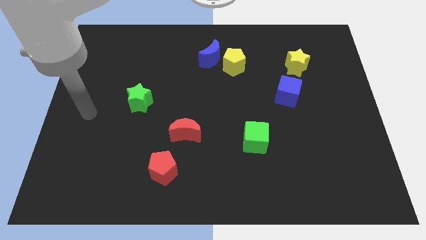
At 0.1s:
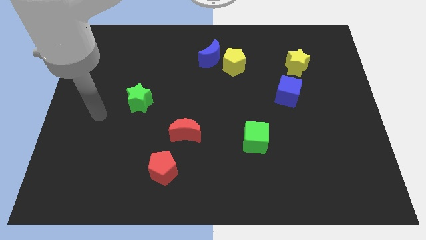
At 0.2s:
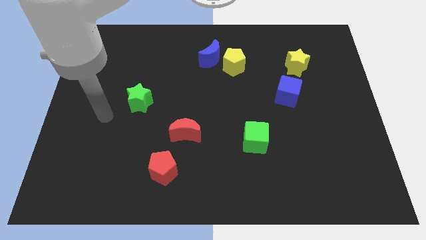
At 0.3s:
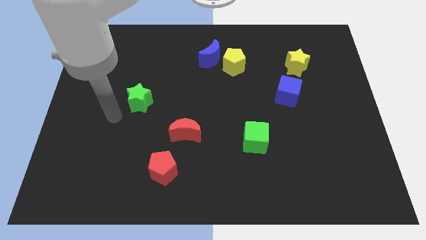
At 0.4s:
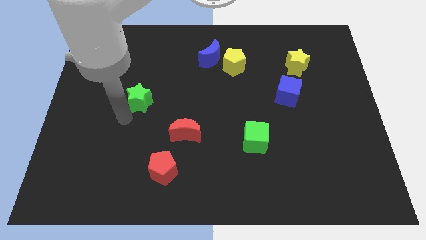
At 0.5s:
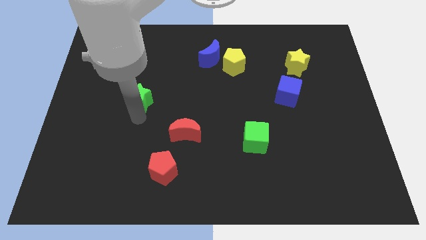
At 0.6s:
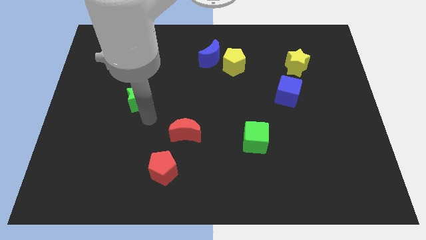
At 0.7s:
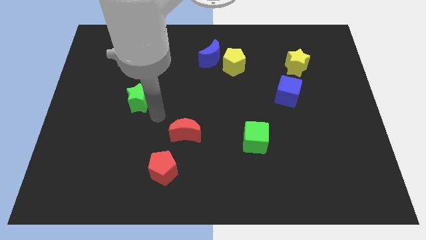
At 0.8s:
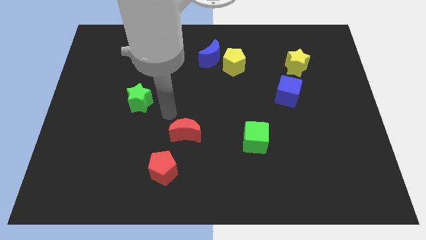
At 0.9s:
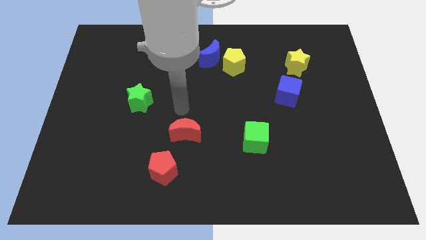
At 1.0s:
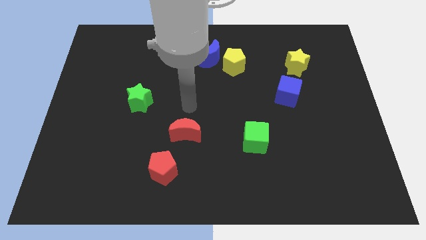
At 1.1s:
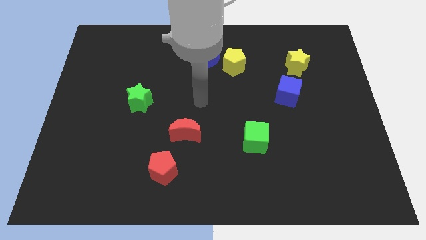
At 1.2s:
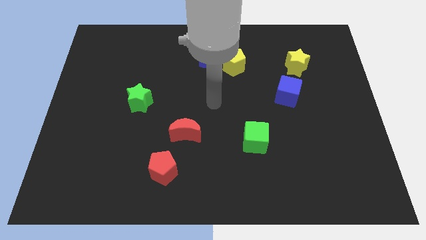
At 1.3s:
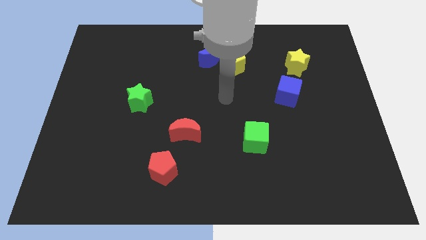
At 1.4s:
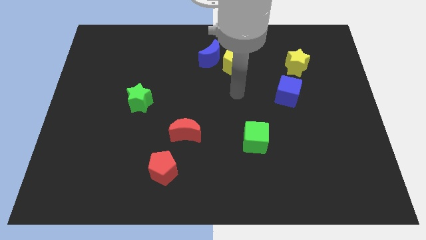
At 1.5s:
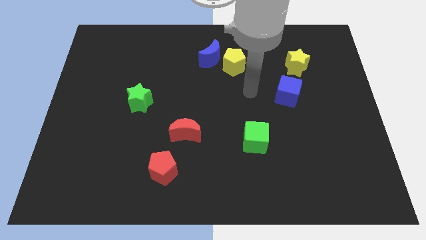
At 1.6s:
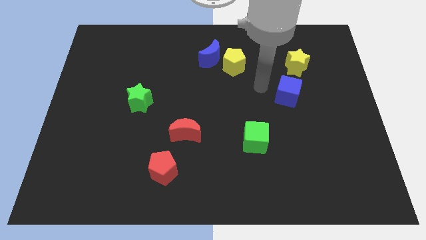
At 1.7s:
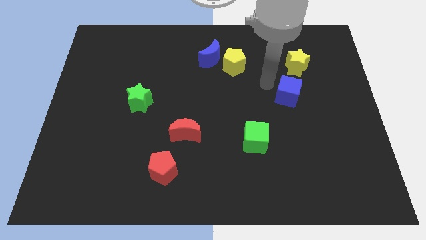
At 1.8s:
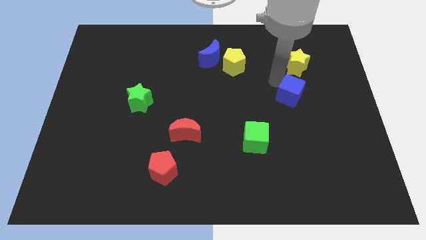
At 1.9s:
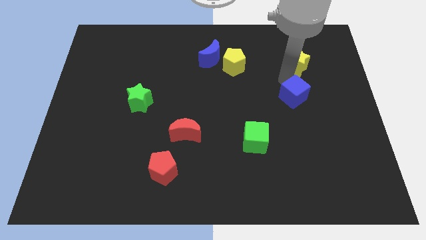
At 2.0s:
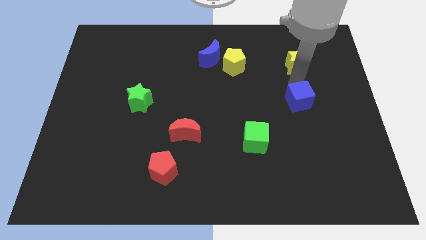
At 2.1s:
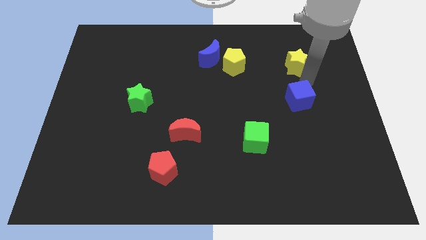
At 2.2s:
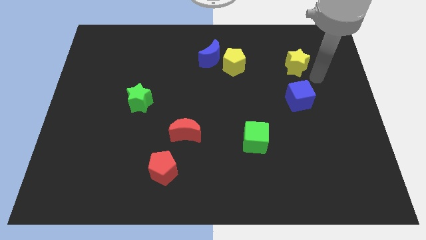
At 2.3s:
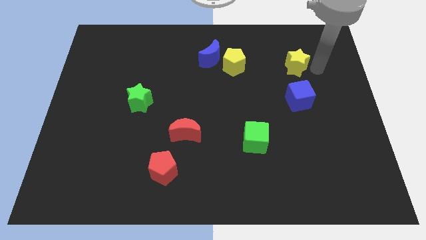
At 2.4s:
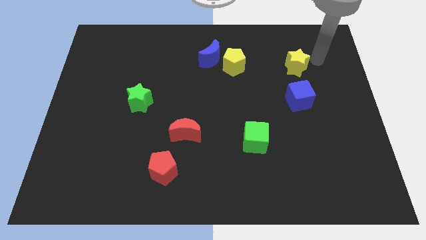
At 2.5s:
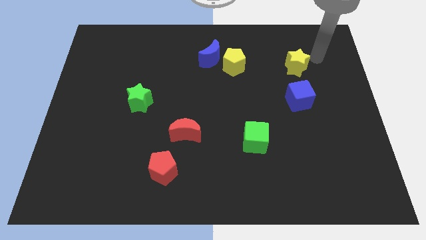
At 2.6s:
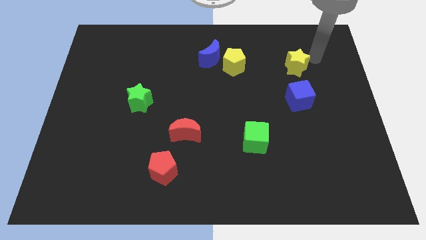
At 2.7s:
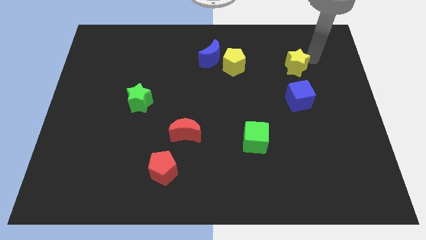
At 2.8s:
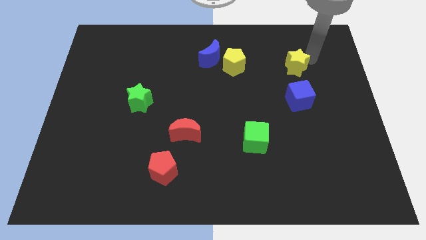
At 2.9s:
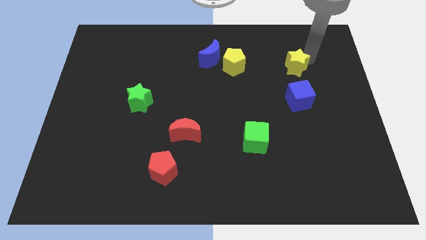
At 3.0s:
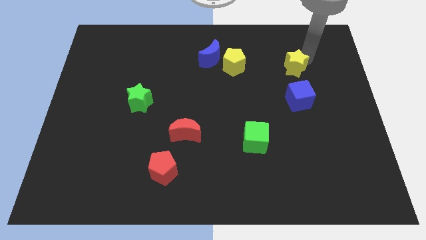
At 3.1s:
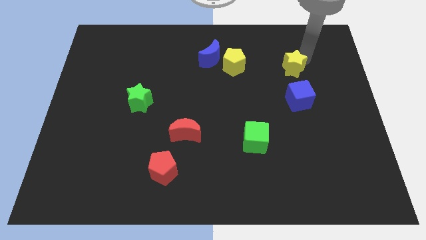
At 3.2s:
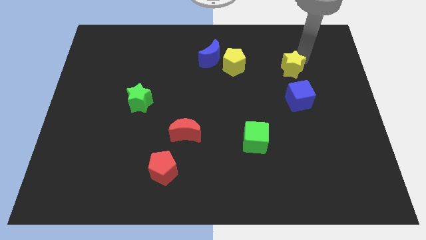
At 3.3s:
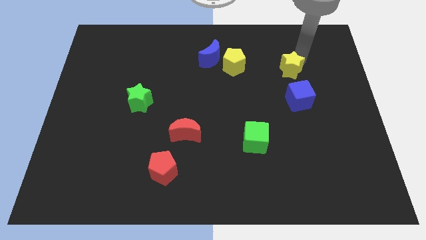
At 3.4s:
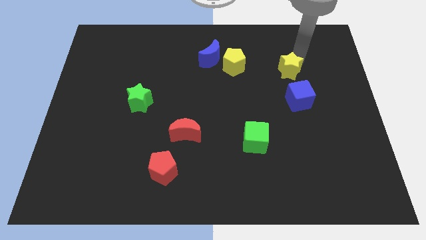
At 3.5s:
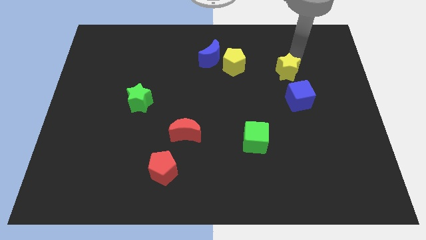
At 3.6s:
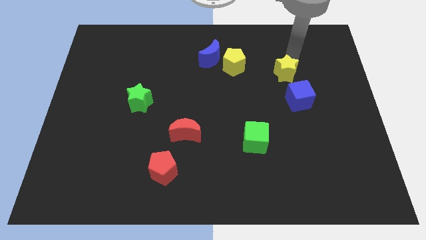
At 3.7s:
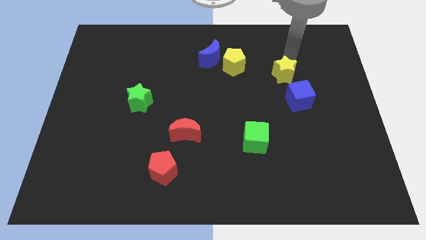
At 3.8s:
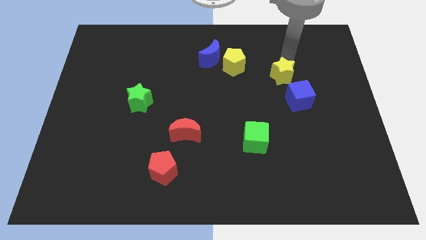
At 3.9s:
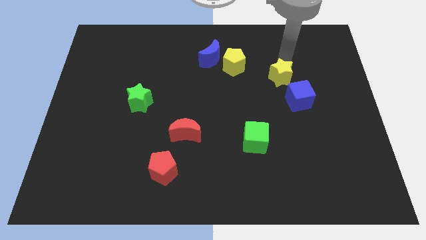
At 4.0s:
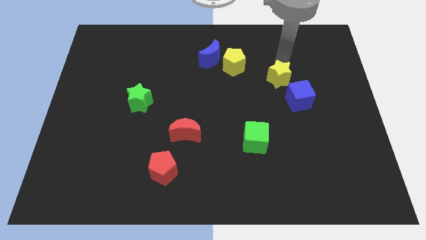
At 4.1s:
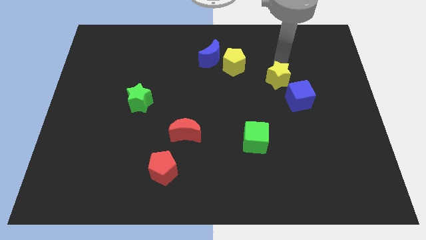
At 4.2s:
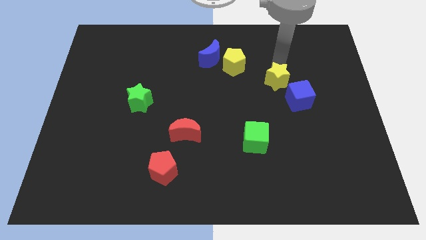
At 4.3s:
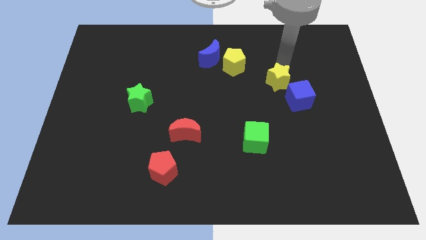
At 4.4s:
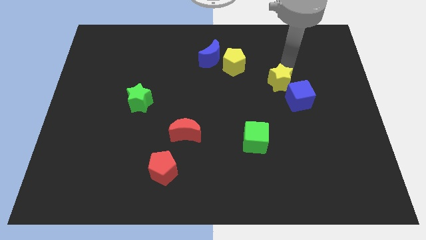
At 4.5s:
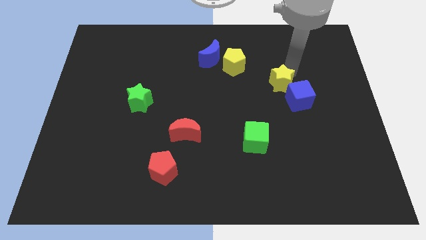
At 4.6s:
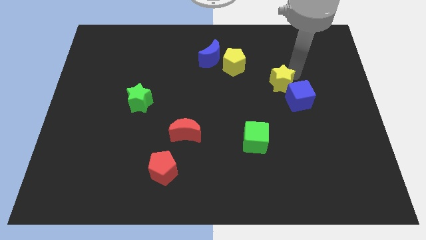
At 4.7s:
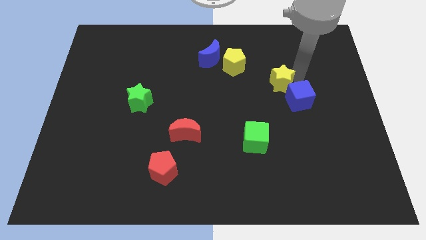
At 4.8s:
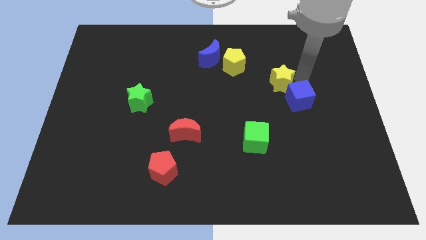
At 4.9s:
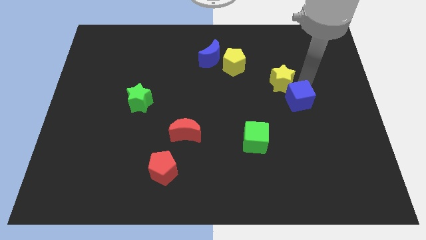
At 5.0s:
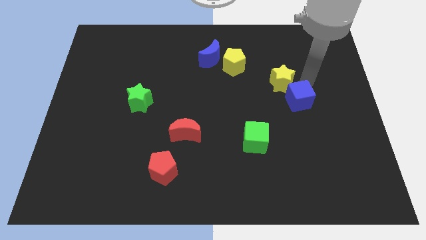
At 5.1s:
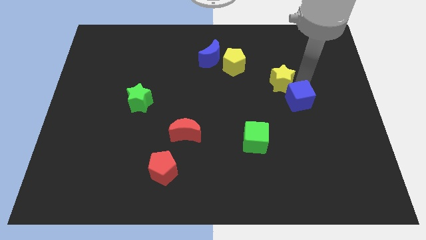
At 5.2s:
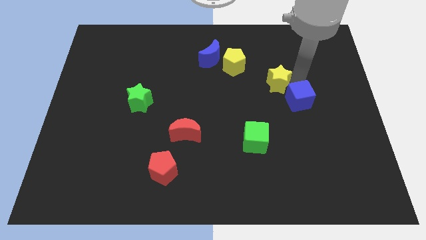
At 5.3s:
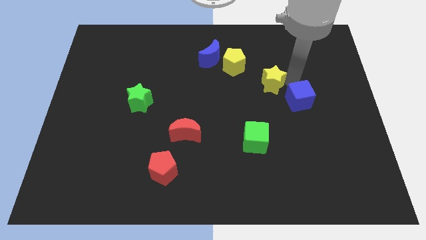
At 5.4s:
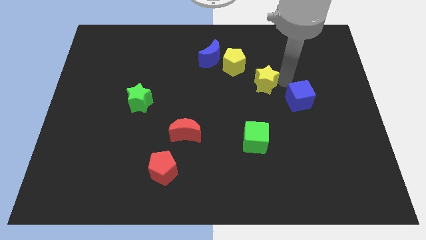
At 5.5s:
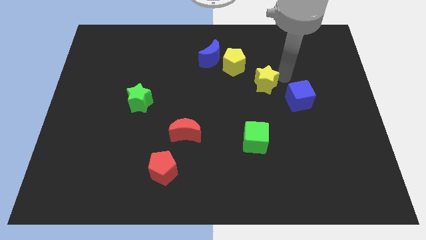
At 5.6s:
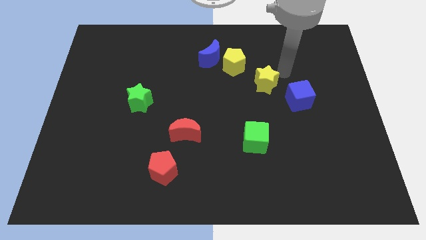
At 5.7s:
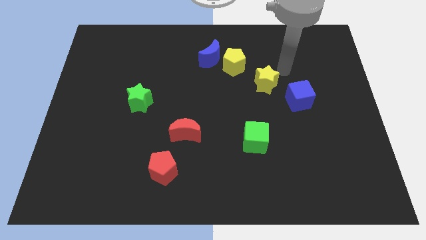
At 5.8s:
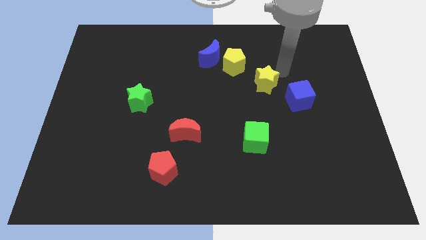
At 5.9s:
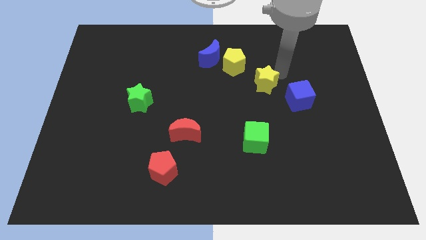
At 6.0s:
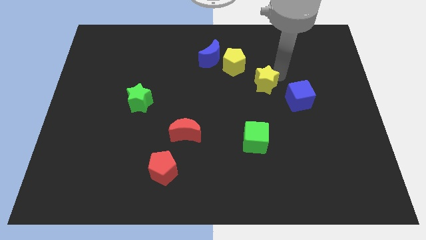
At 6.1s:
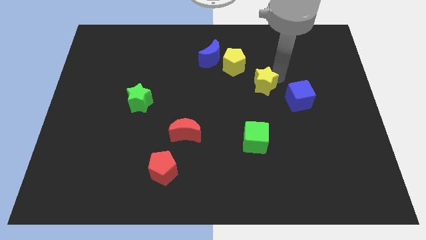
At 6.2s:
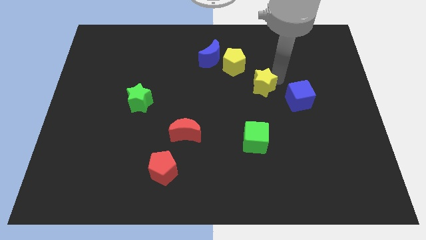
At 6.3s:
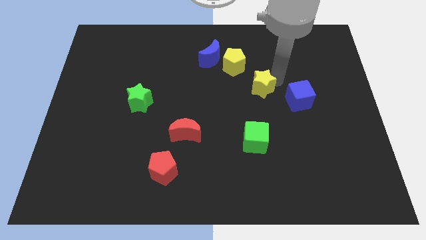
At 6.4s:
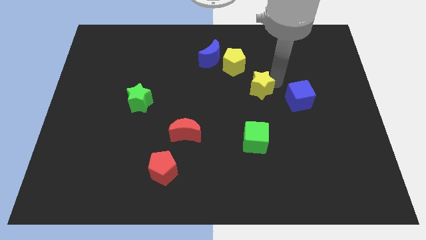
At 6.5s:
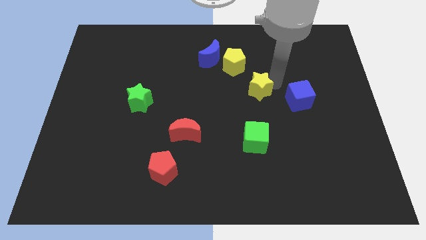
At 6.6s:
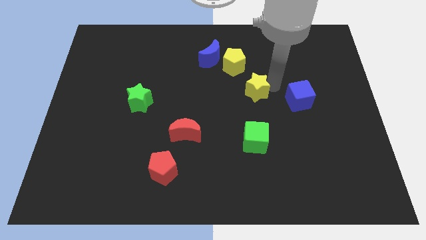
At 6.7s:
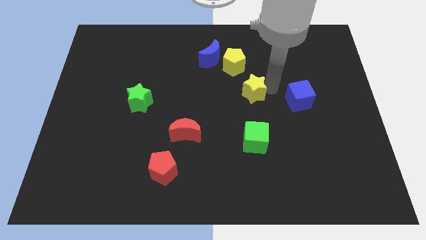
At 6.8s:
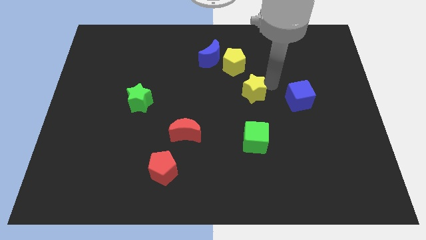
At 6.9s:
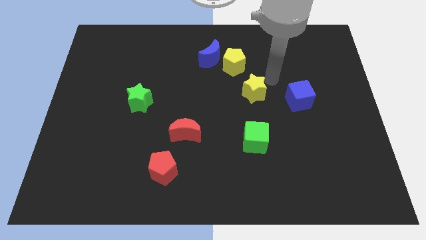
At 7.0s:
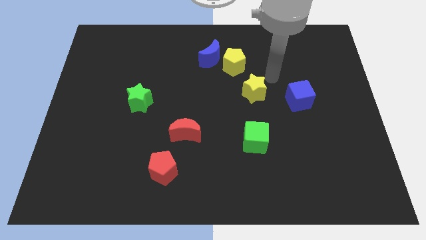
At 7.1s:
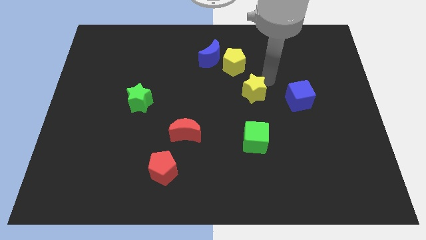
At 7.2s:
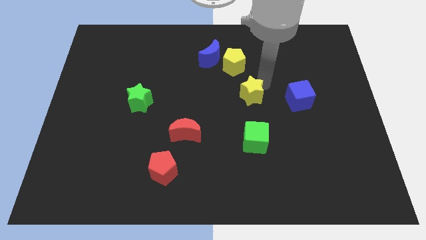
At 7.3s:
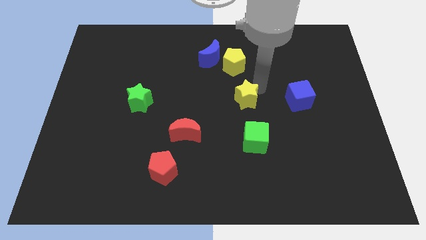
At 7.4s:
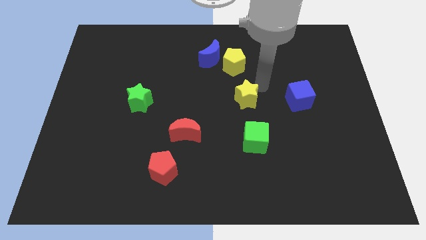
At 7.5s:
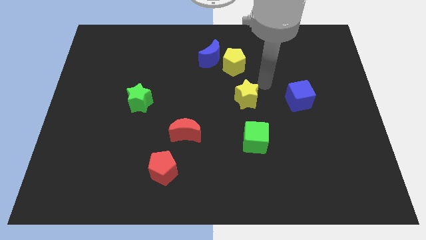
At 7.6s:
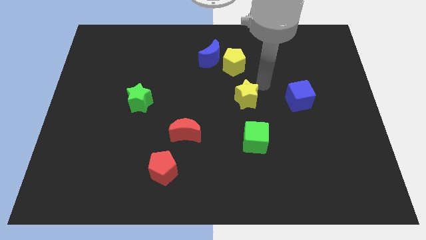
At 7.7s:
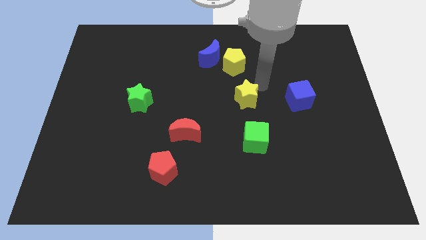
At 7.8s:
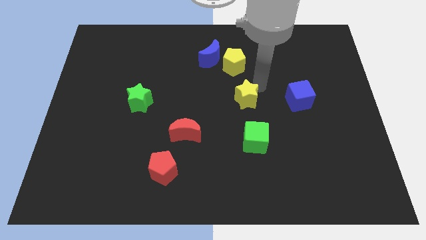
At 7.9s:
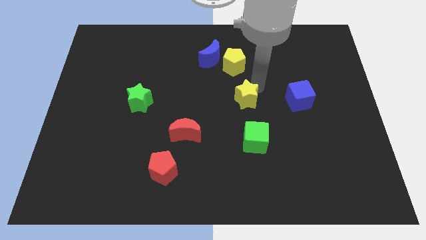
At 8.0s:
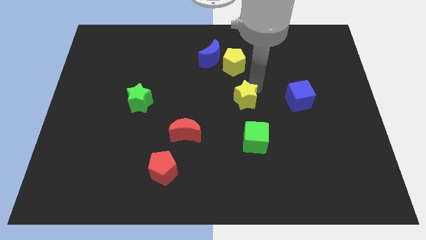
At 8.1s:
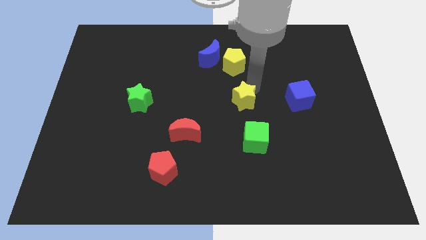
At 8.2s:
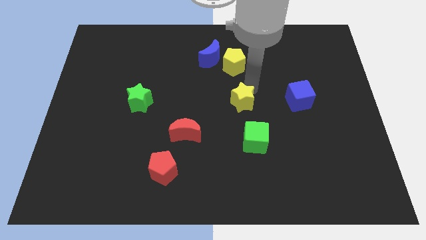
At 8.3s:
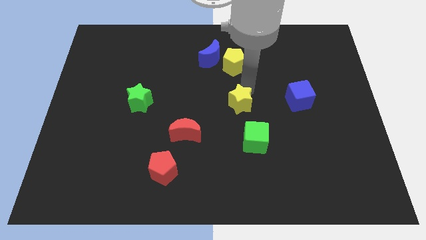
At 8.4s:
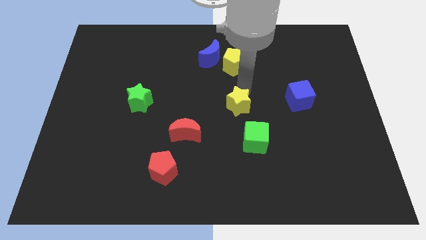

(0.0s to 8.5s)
move the yellow star down and to the left diagonally
